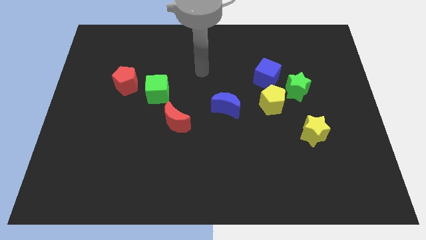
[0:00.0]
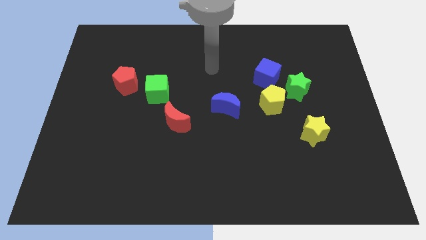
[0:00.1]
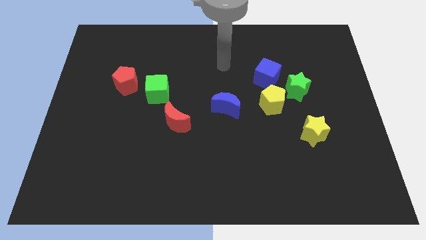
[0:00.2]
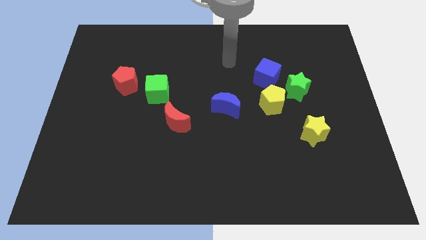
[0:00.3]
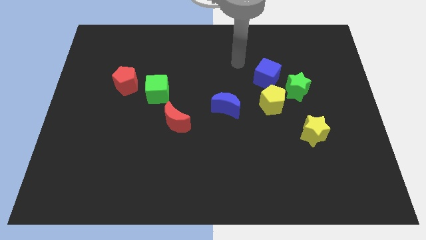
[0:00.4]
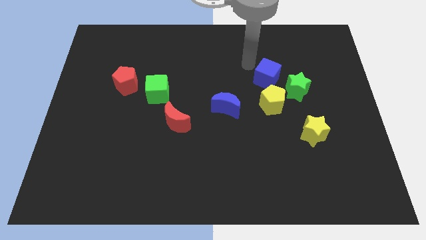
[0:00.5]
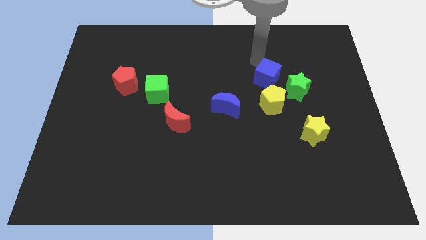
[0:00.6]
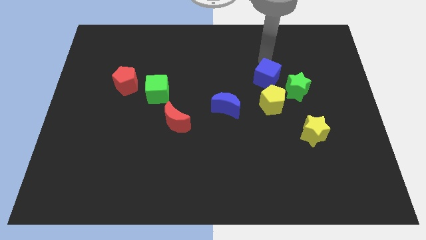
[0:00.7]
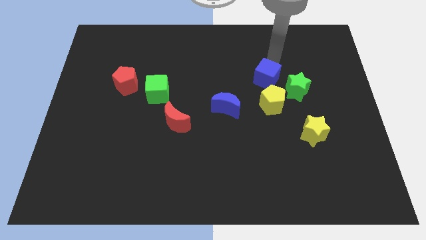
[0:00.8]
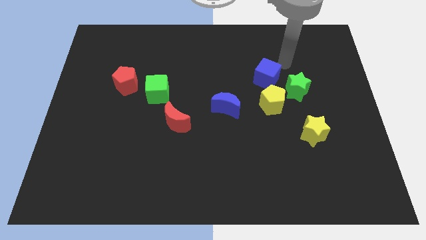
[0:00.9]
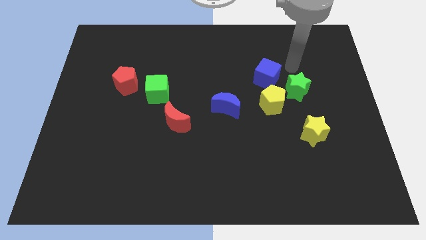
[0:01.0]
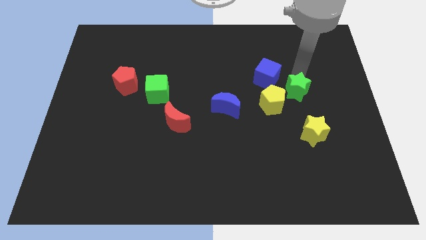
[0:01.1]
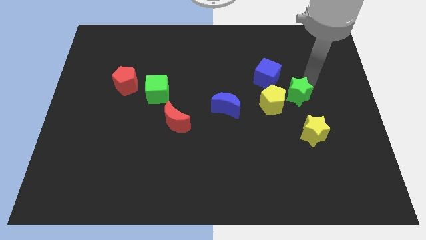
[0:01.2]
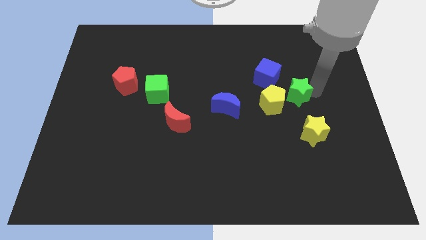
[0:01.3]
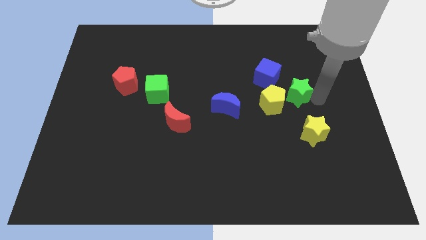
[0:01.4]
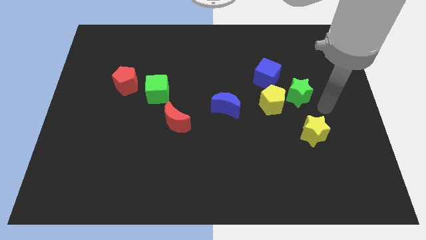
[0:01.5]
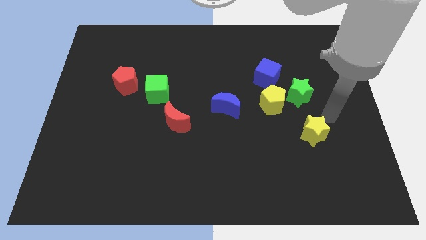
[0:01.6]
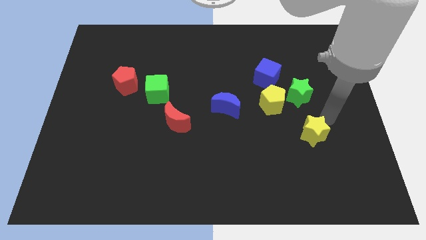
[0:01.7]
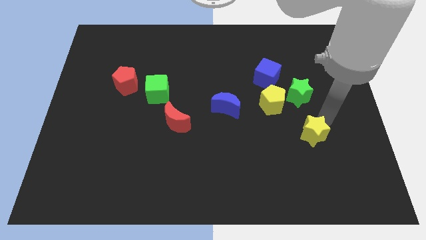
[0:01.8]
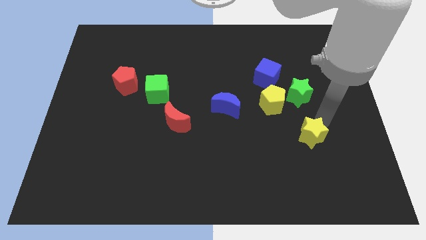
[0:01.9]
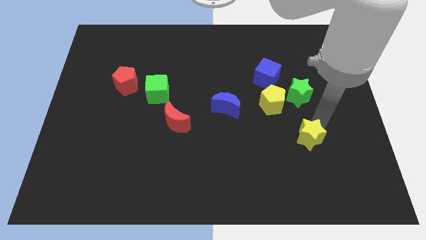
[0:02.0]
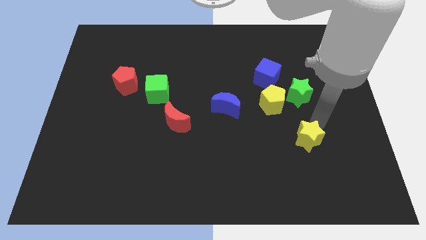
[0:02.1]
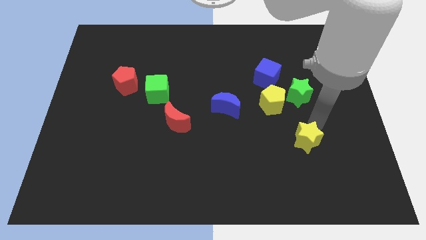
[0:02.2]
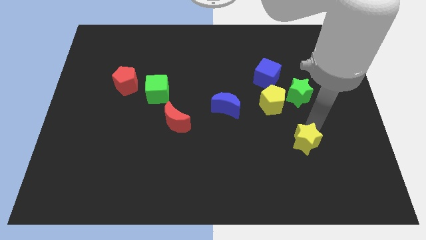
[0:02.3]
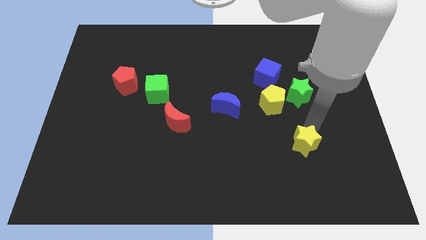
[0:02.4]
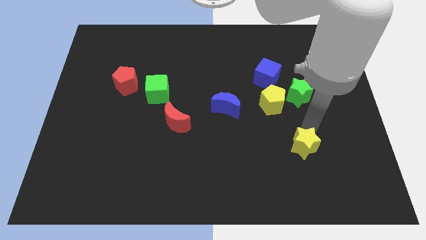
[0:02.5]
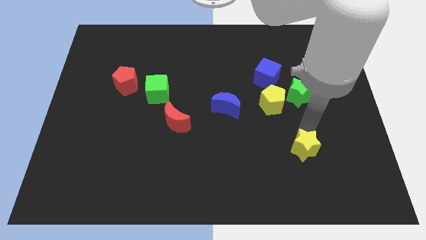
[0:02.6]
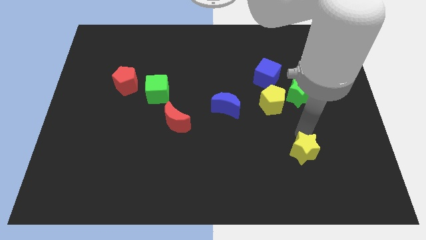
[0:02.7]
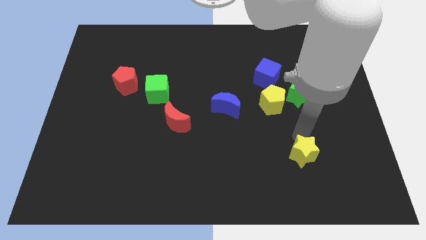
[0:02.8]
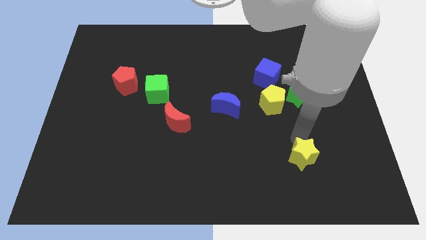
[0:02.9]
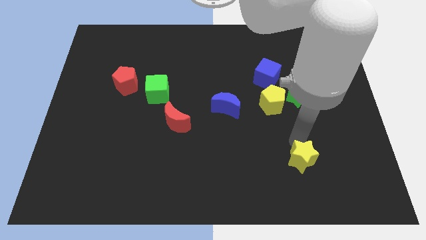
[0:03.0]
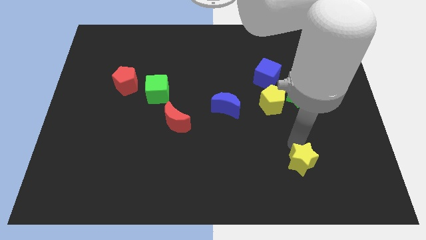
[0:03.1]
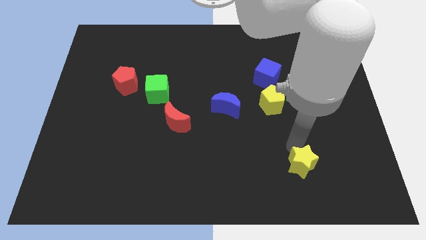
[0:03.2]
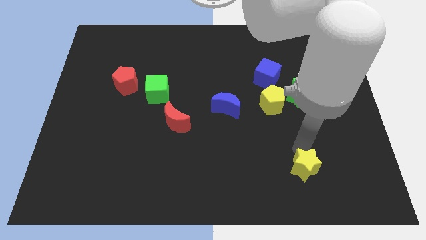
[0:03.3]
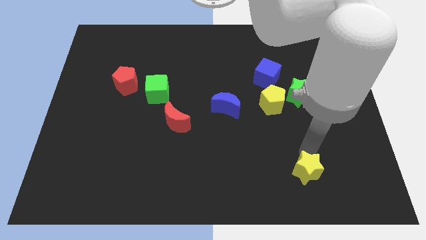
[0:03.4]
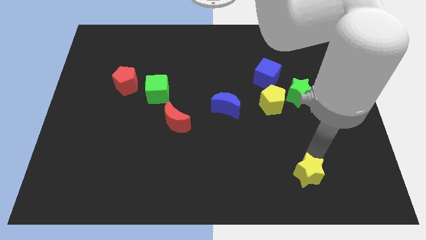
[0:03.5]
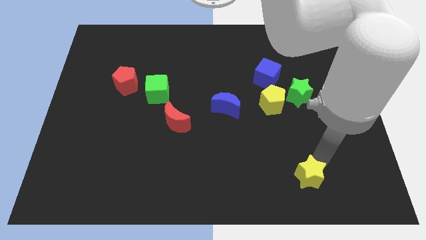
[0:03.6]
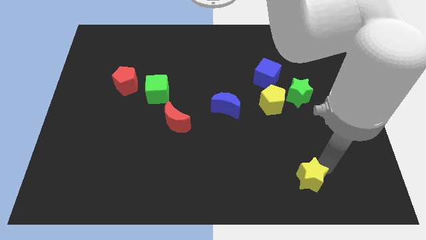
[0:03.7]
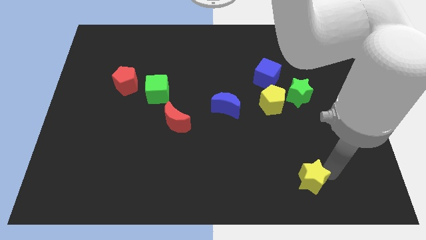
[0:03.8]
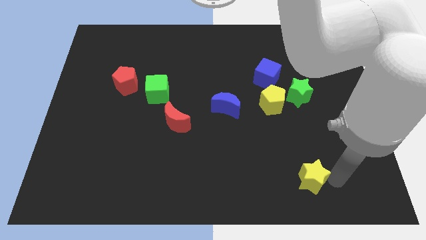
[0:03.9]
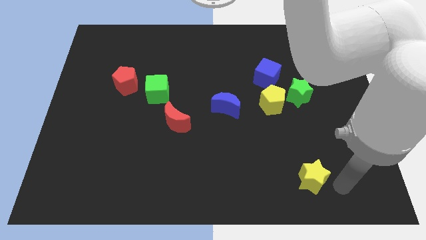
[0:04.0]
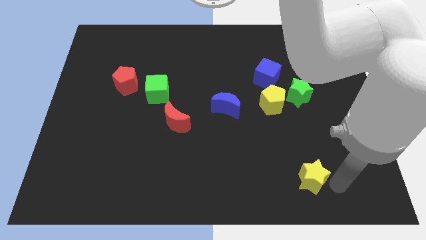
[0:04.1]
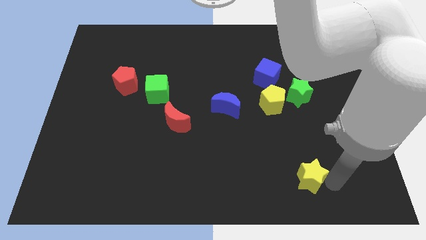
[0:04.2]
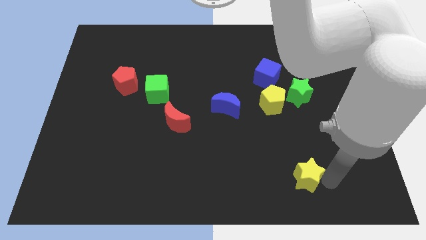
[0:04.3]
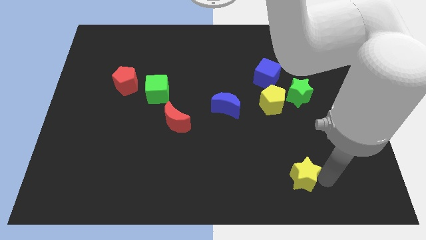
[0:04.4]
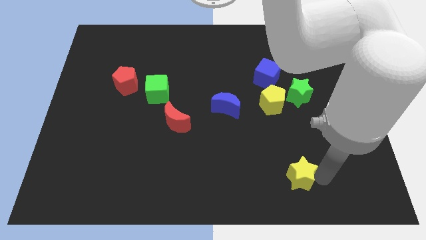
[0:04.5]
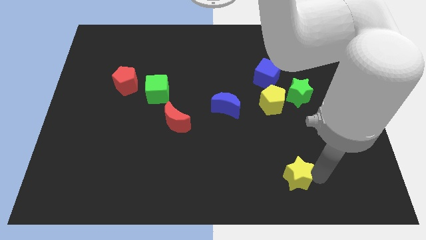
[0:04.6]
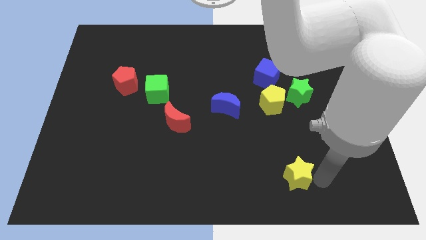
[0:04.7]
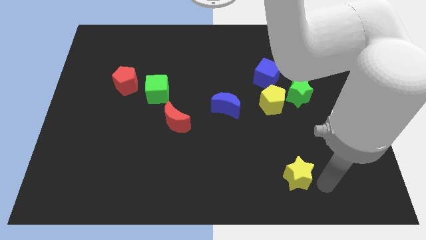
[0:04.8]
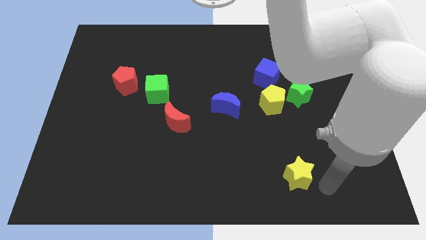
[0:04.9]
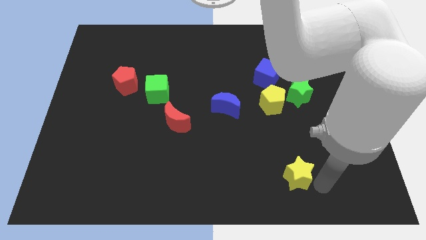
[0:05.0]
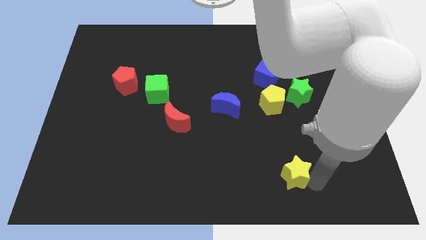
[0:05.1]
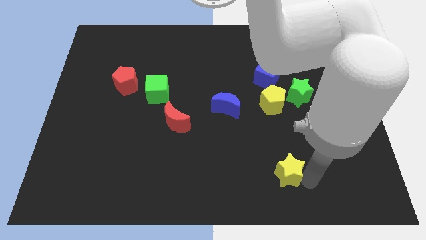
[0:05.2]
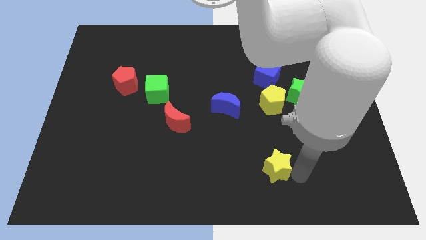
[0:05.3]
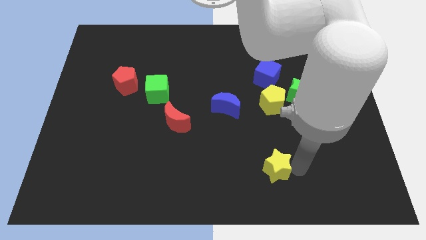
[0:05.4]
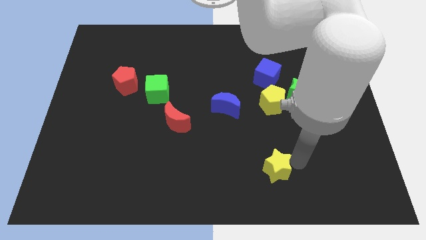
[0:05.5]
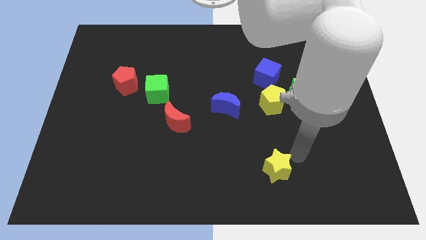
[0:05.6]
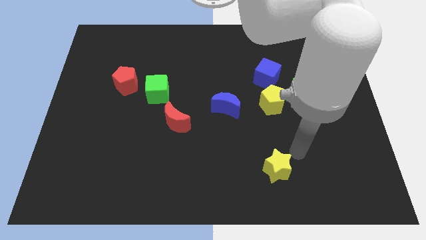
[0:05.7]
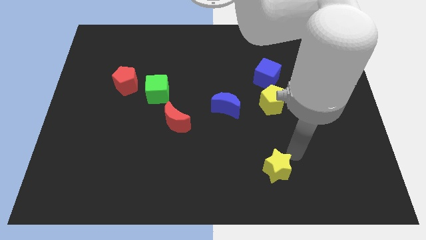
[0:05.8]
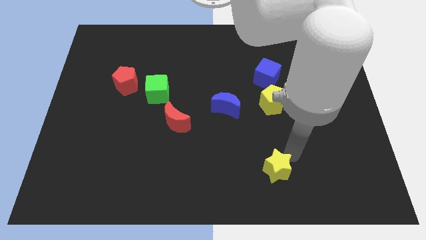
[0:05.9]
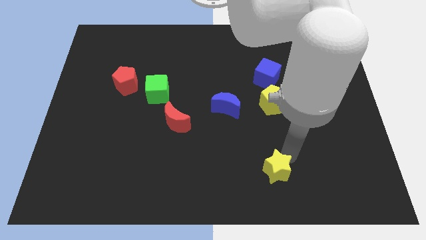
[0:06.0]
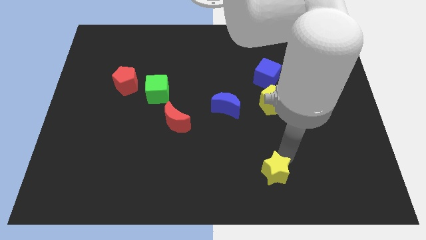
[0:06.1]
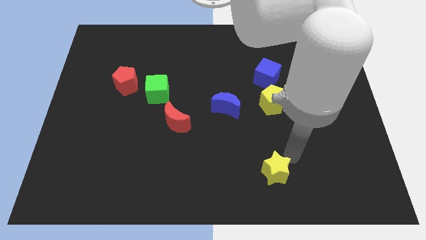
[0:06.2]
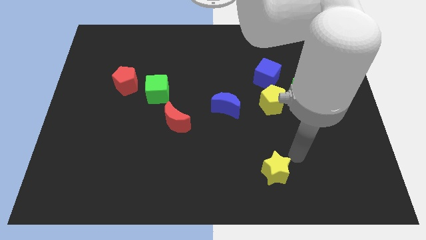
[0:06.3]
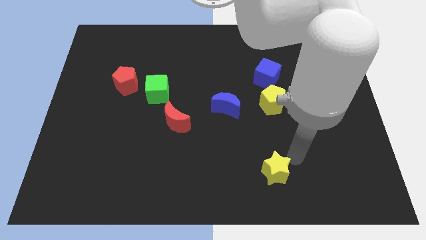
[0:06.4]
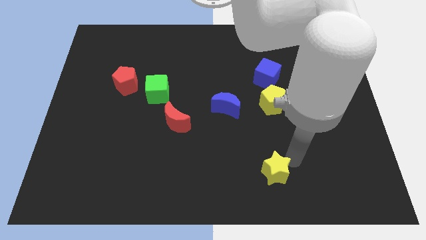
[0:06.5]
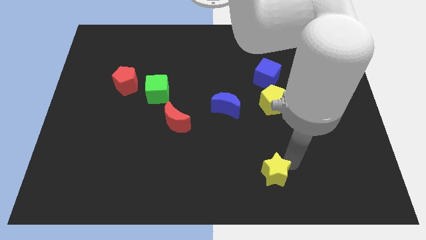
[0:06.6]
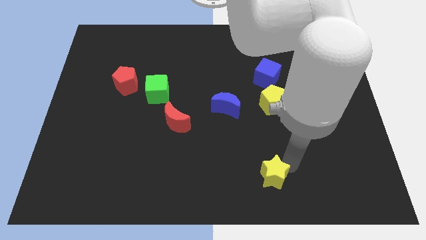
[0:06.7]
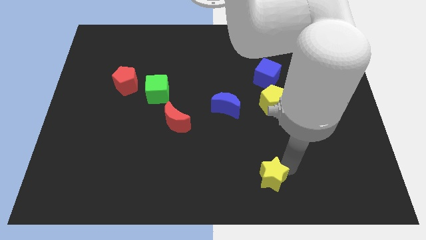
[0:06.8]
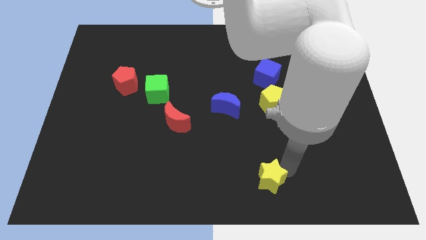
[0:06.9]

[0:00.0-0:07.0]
slide the yellow star to the bottom
